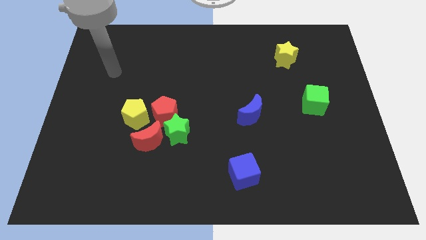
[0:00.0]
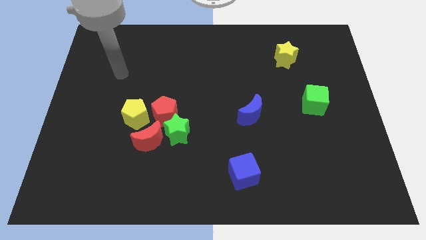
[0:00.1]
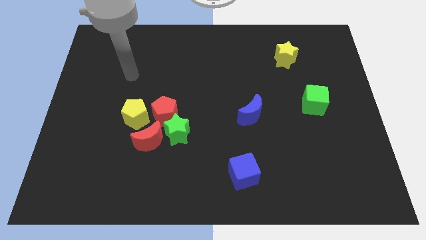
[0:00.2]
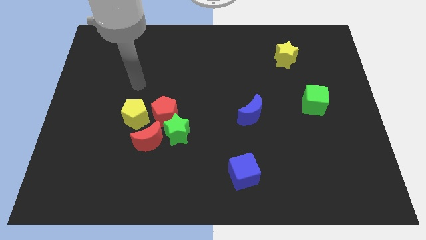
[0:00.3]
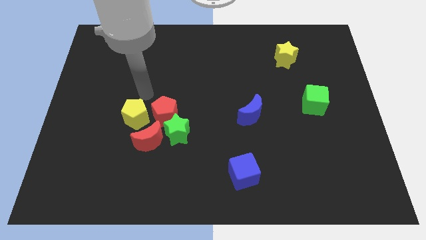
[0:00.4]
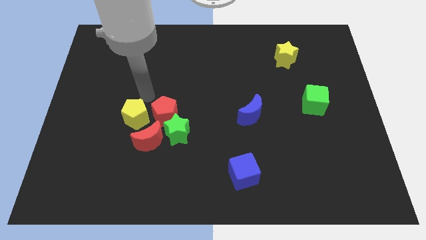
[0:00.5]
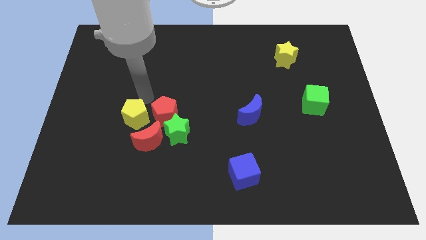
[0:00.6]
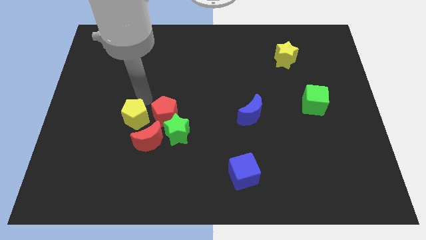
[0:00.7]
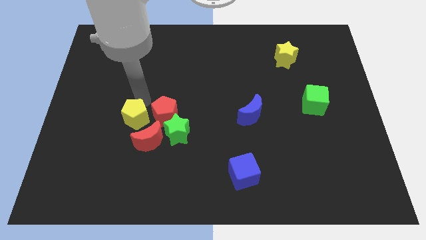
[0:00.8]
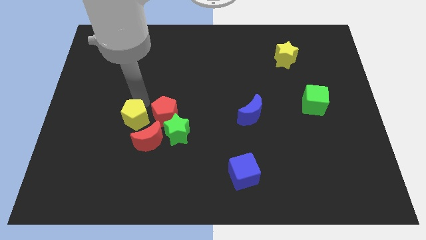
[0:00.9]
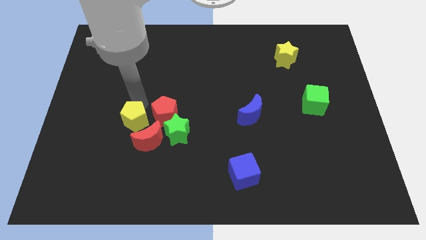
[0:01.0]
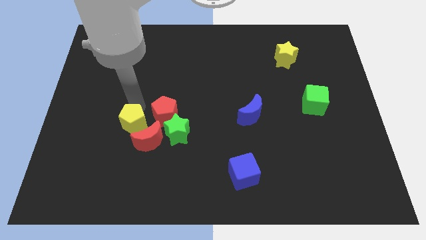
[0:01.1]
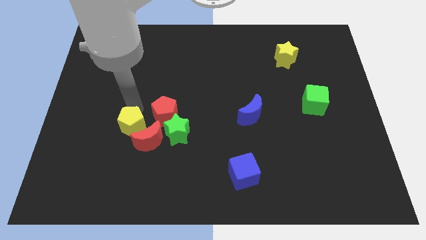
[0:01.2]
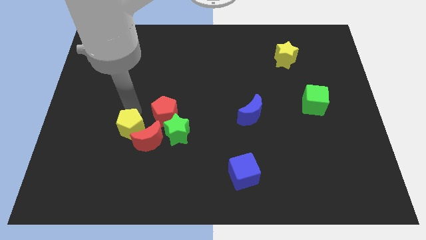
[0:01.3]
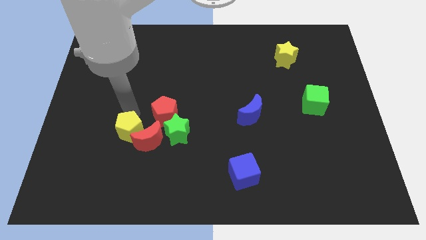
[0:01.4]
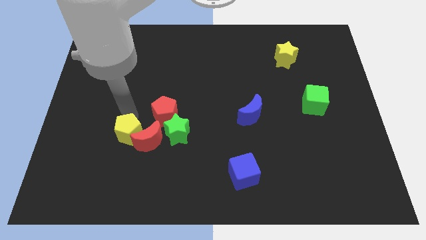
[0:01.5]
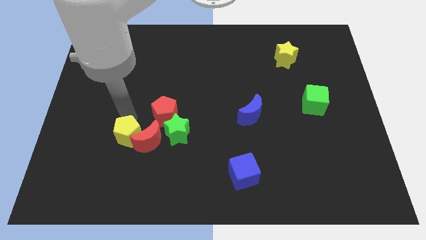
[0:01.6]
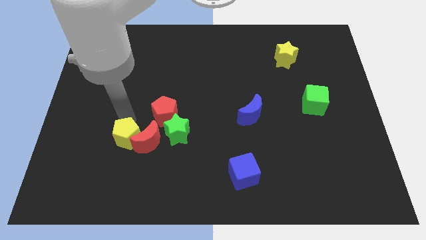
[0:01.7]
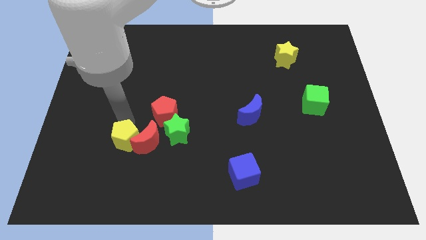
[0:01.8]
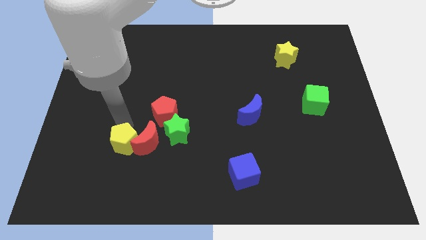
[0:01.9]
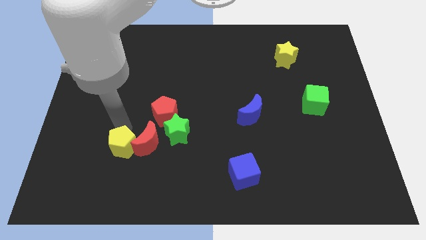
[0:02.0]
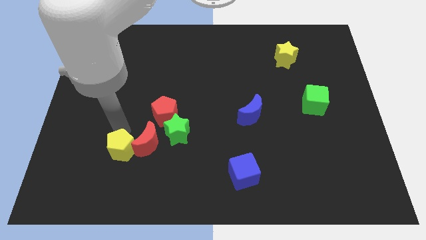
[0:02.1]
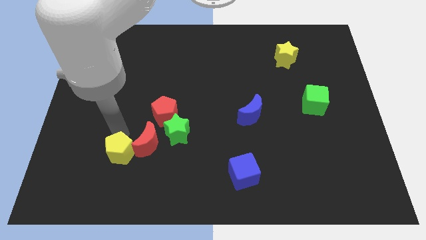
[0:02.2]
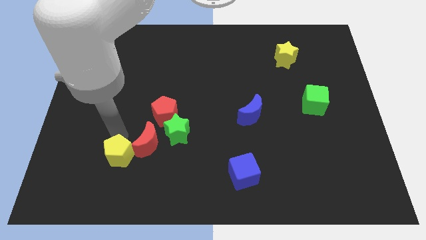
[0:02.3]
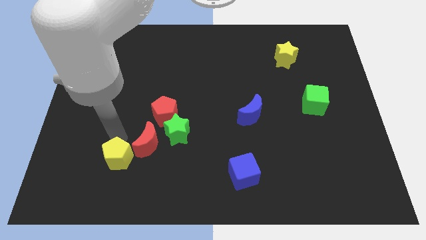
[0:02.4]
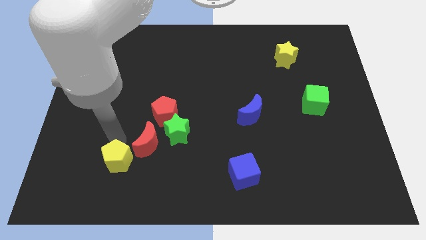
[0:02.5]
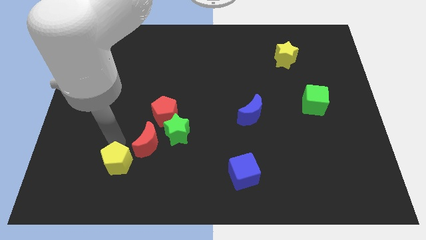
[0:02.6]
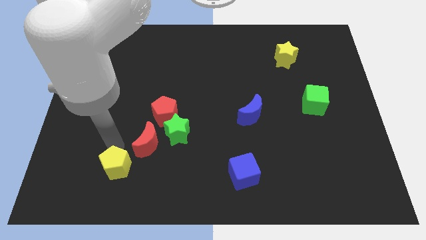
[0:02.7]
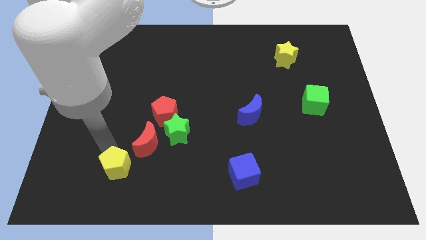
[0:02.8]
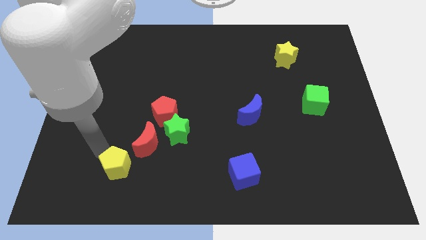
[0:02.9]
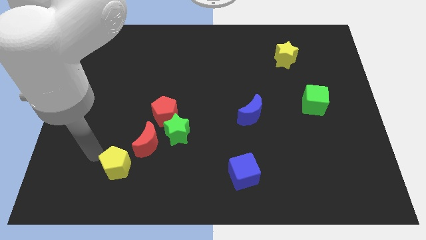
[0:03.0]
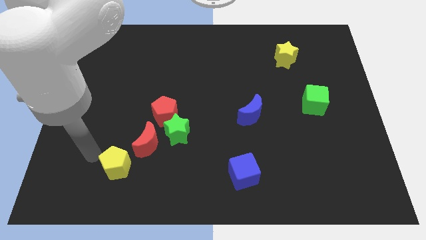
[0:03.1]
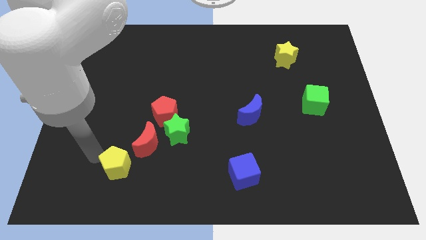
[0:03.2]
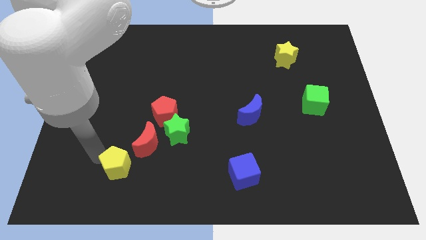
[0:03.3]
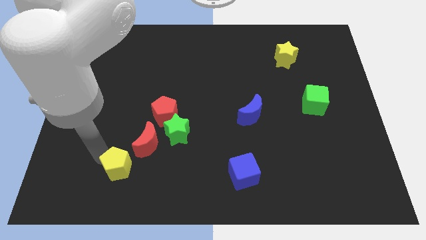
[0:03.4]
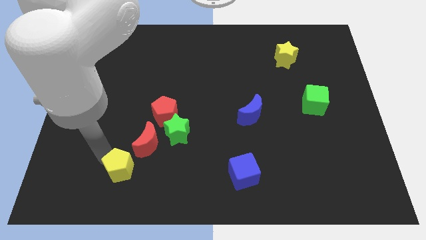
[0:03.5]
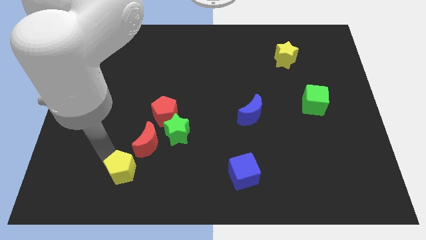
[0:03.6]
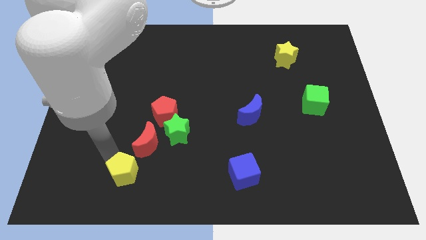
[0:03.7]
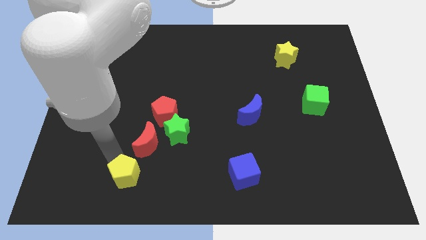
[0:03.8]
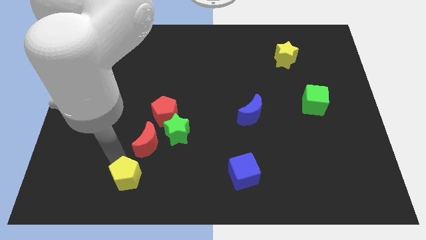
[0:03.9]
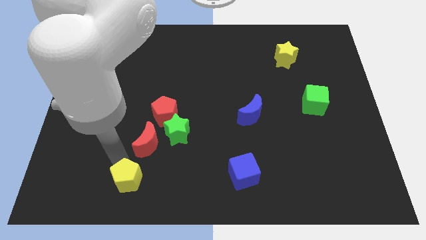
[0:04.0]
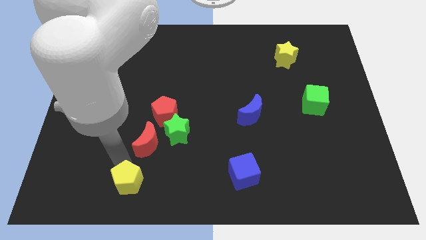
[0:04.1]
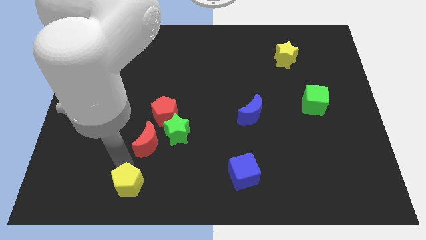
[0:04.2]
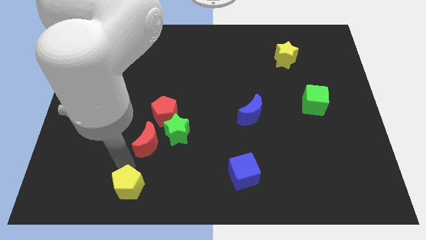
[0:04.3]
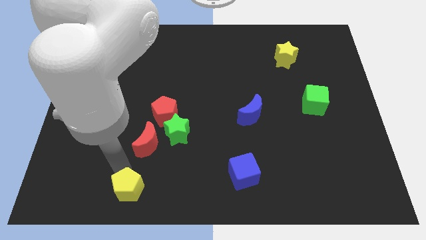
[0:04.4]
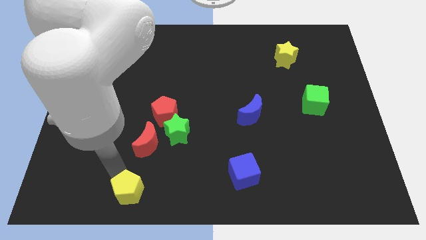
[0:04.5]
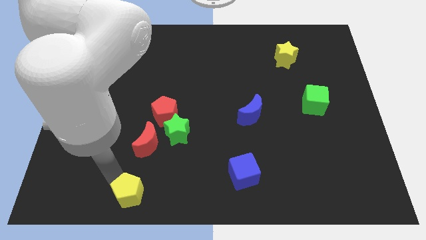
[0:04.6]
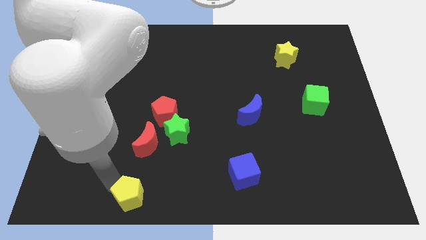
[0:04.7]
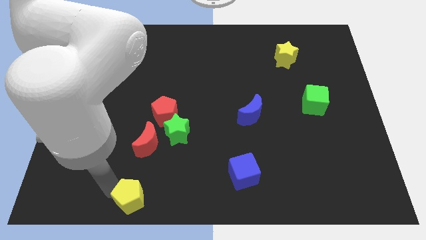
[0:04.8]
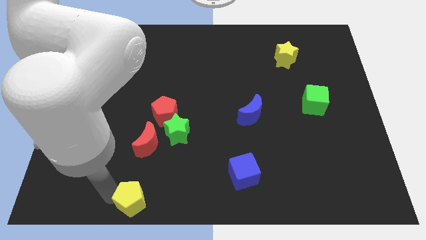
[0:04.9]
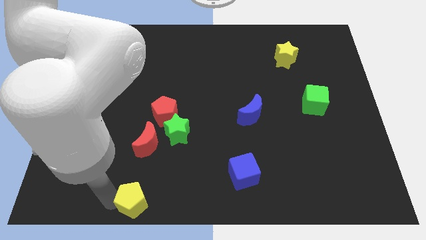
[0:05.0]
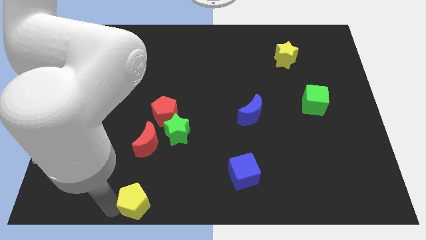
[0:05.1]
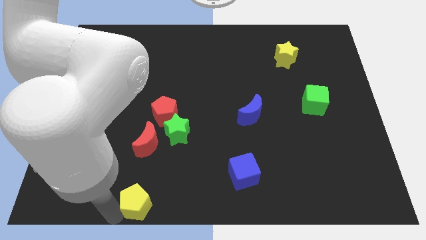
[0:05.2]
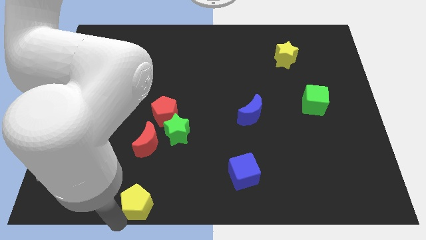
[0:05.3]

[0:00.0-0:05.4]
put the yellow pentagon to the bottom side

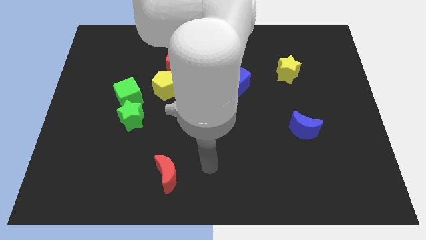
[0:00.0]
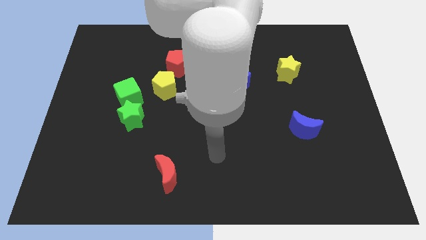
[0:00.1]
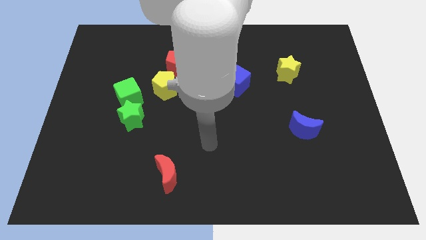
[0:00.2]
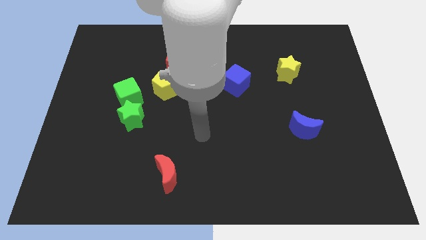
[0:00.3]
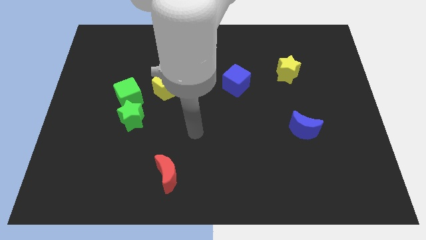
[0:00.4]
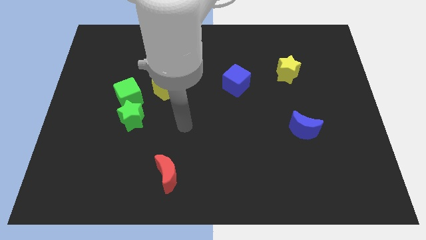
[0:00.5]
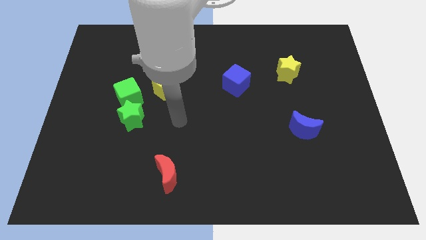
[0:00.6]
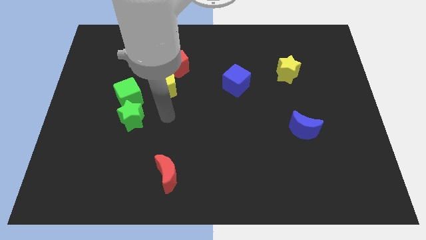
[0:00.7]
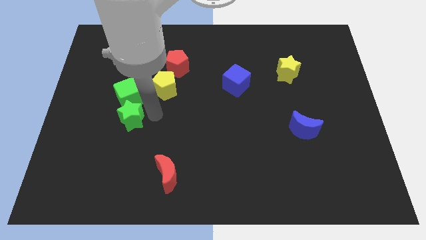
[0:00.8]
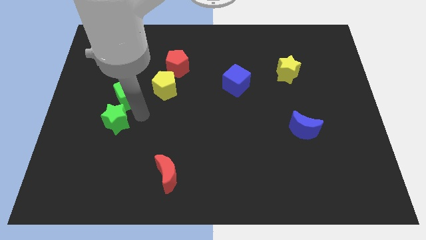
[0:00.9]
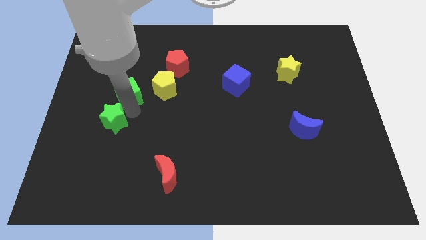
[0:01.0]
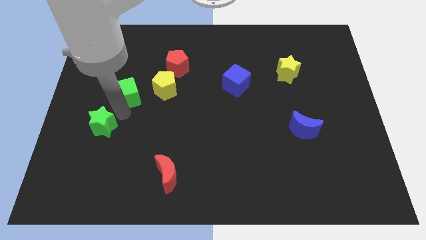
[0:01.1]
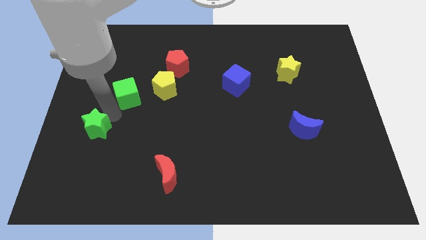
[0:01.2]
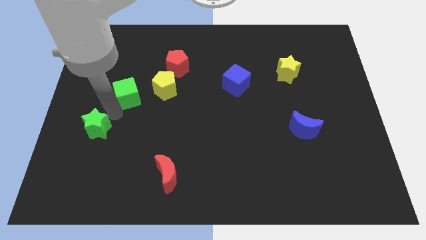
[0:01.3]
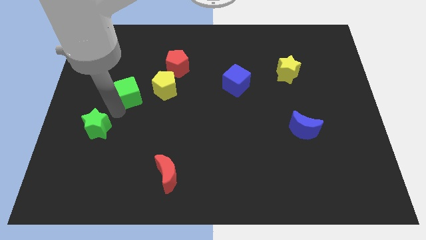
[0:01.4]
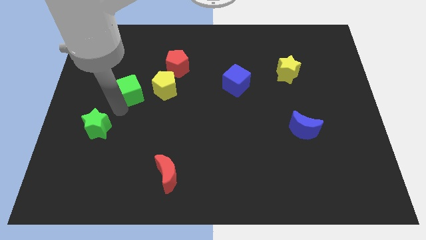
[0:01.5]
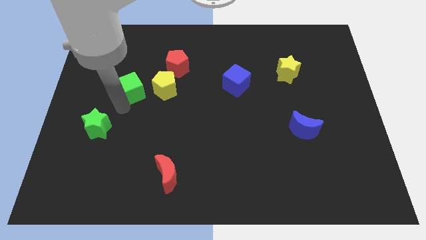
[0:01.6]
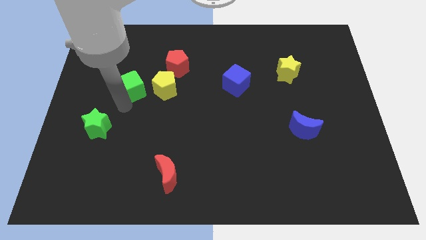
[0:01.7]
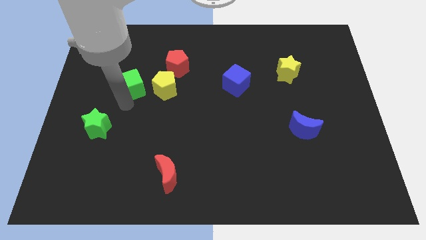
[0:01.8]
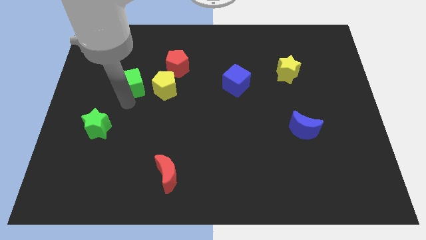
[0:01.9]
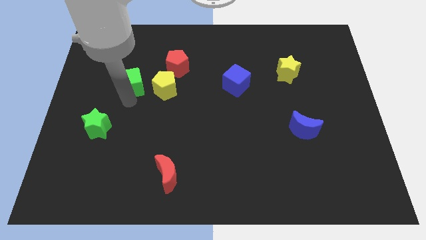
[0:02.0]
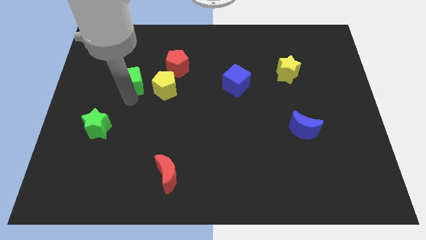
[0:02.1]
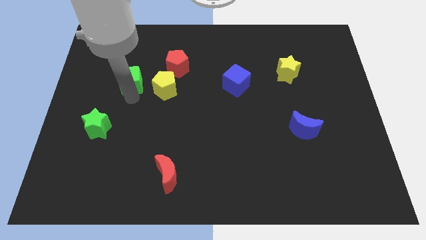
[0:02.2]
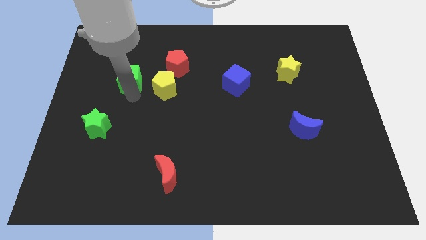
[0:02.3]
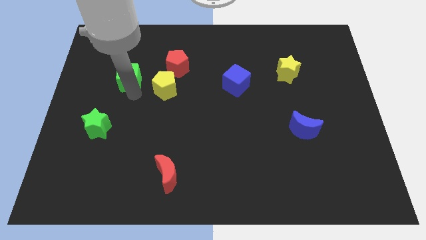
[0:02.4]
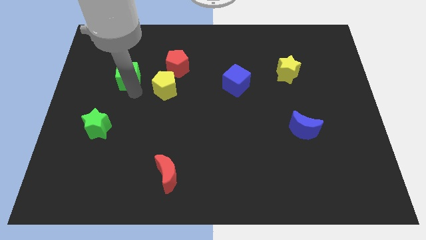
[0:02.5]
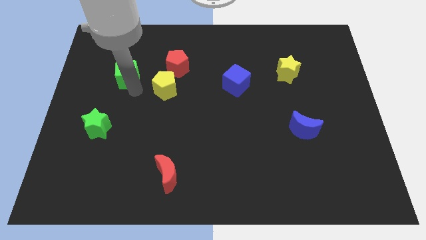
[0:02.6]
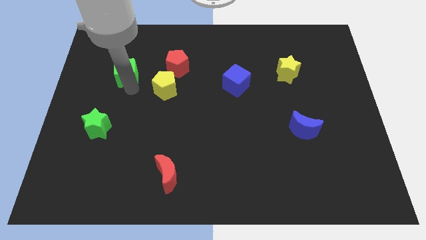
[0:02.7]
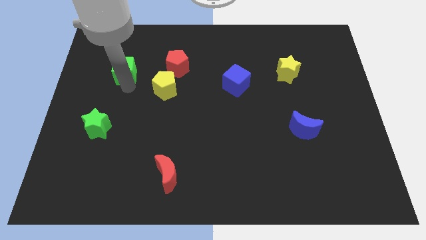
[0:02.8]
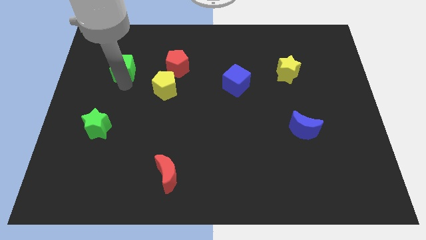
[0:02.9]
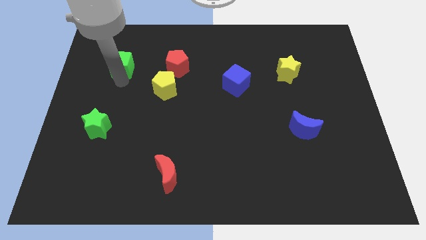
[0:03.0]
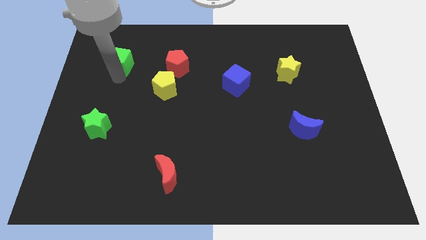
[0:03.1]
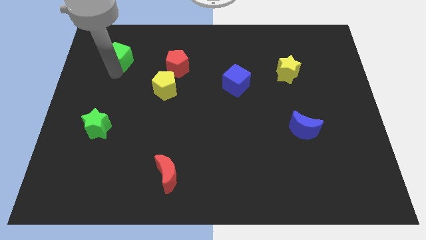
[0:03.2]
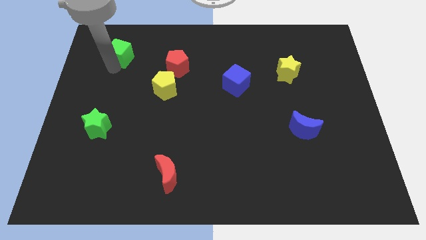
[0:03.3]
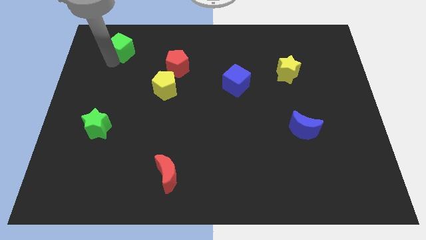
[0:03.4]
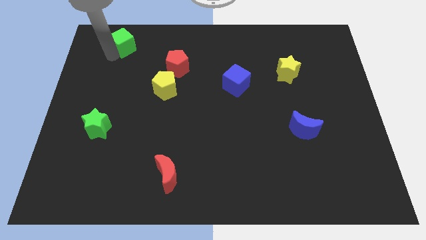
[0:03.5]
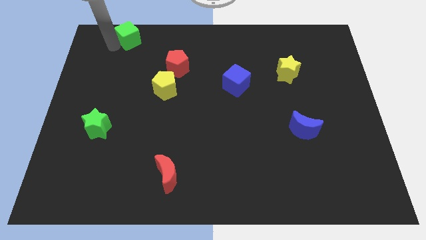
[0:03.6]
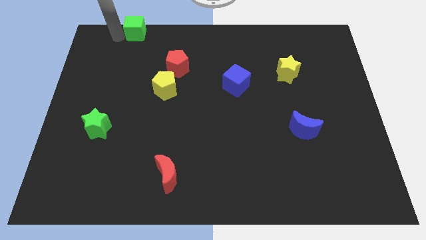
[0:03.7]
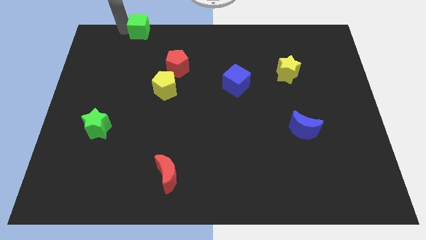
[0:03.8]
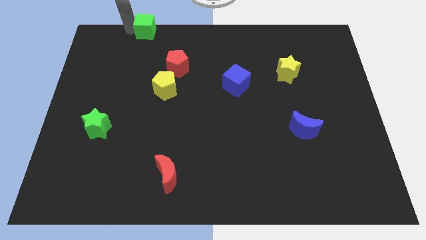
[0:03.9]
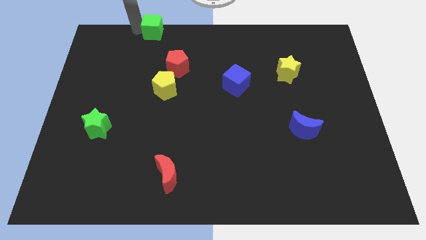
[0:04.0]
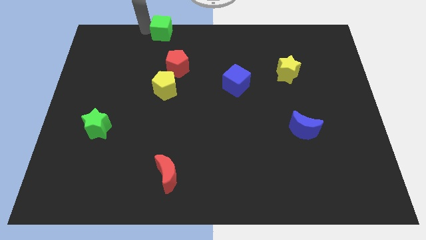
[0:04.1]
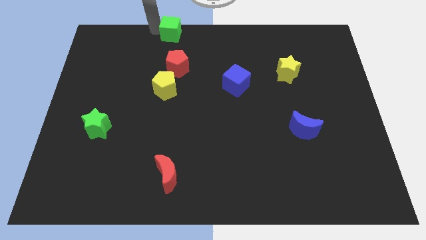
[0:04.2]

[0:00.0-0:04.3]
slide the green cube to the top
